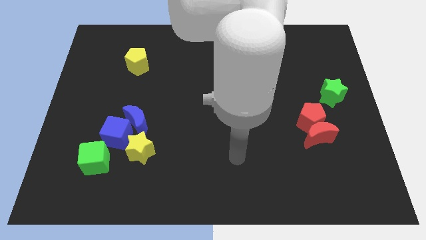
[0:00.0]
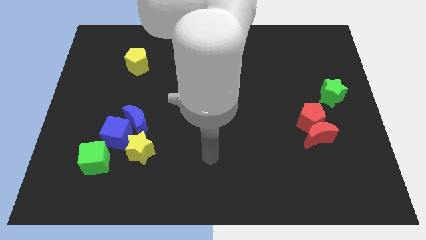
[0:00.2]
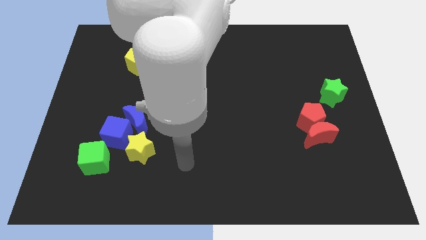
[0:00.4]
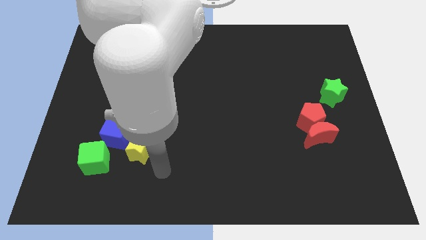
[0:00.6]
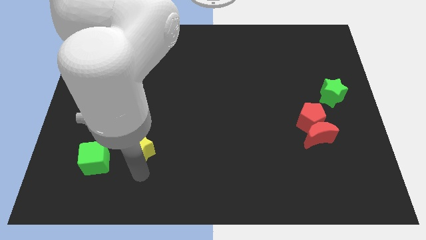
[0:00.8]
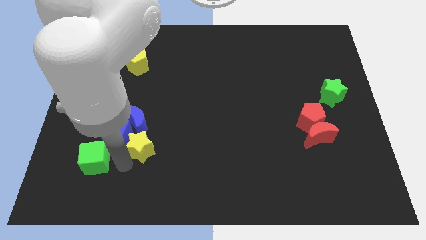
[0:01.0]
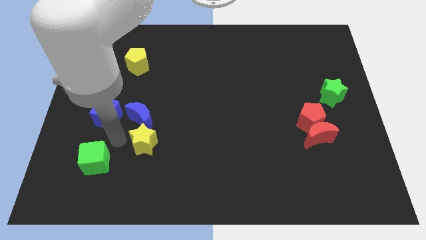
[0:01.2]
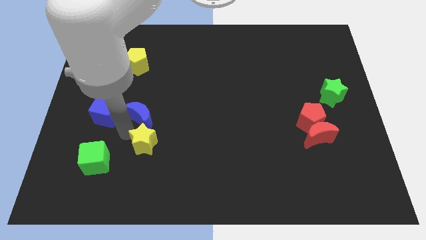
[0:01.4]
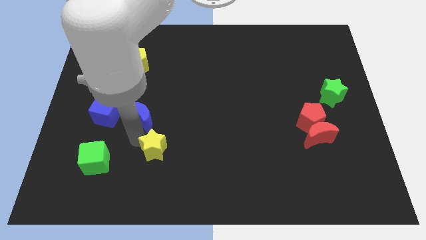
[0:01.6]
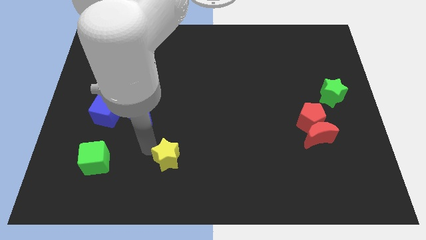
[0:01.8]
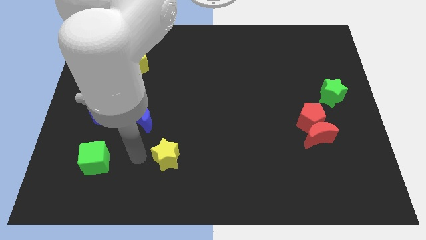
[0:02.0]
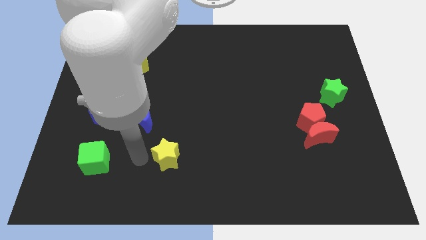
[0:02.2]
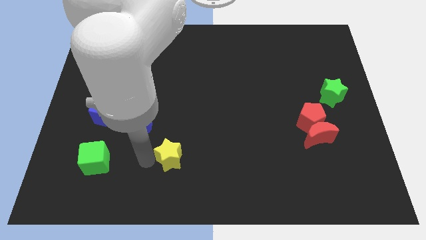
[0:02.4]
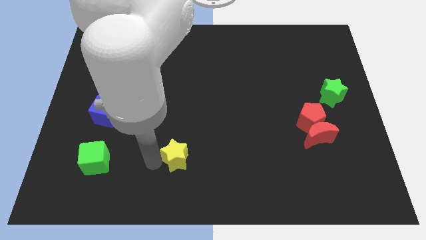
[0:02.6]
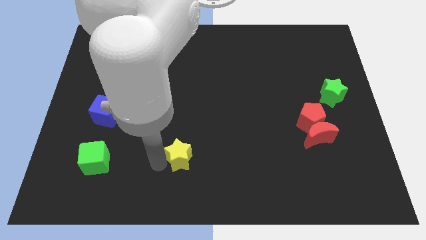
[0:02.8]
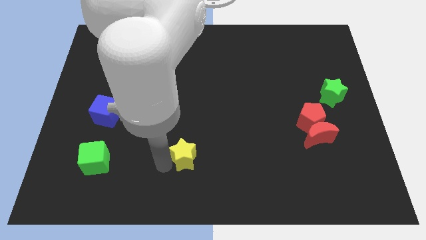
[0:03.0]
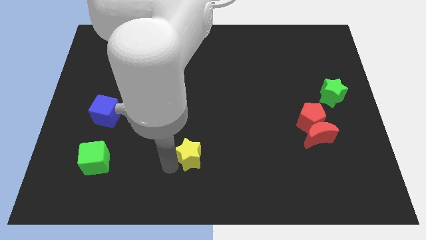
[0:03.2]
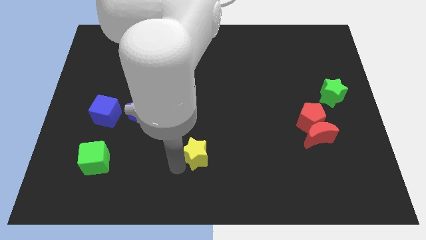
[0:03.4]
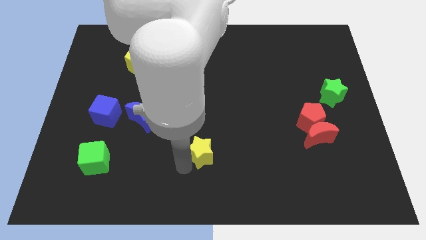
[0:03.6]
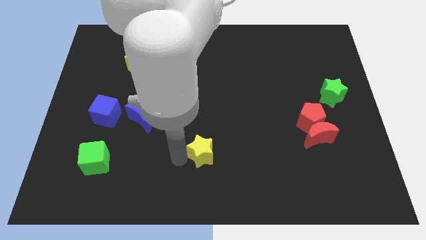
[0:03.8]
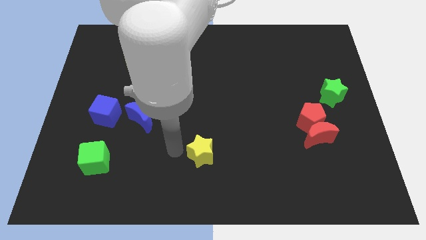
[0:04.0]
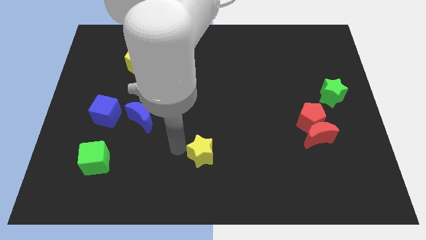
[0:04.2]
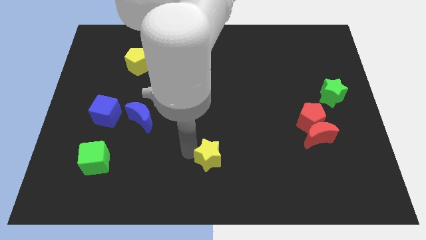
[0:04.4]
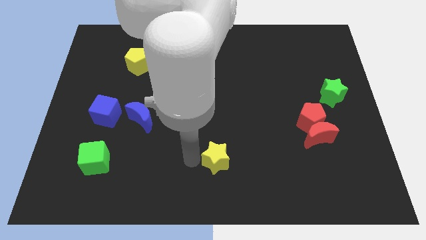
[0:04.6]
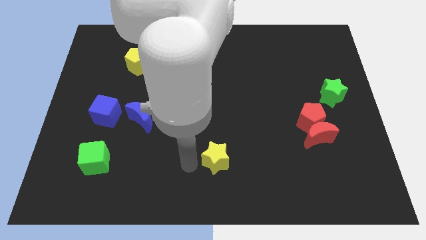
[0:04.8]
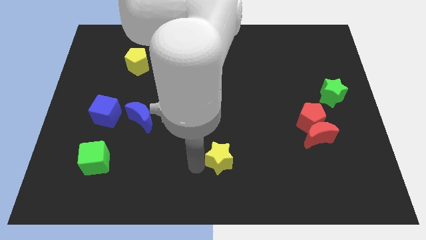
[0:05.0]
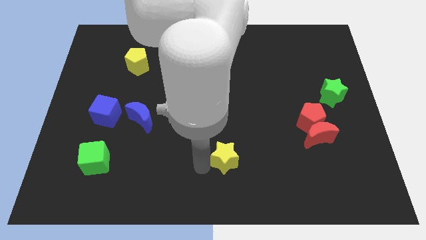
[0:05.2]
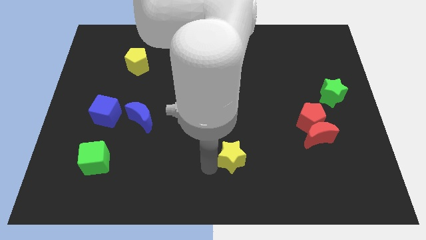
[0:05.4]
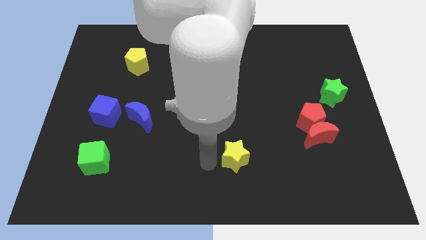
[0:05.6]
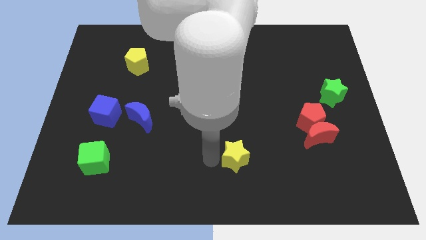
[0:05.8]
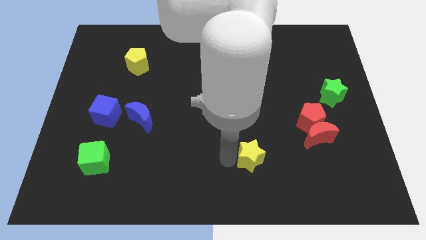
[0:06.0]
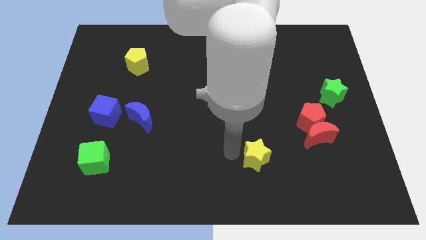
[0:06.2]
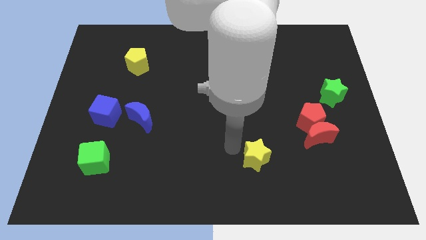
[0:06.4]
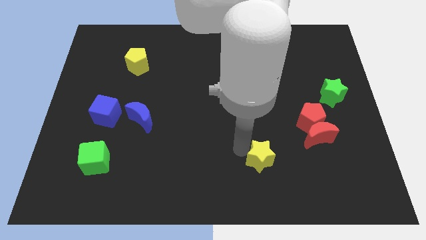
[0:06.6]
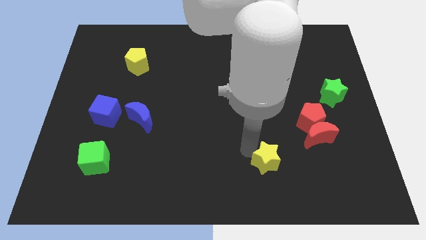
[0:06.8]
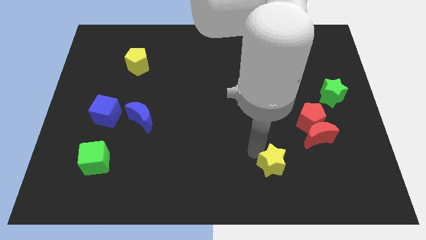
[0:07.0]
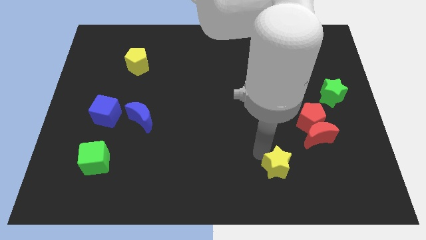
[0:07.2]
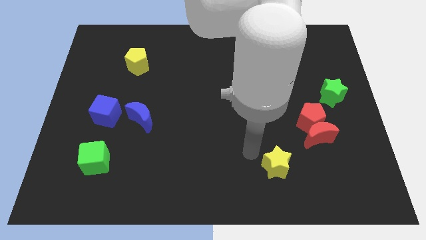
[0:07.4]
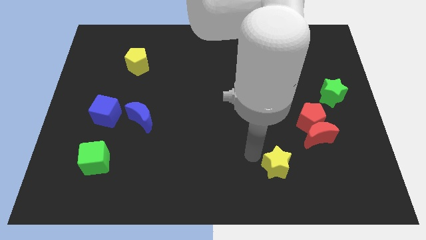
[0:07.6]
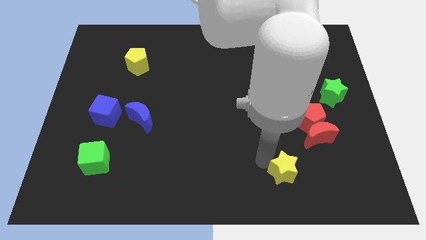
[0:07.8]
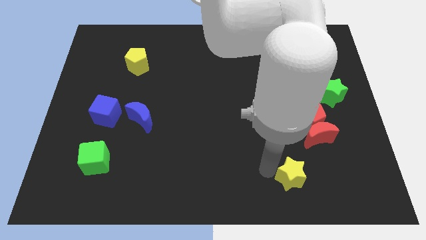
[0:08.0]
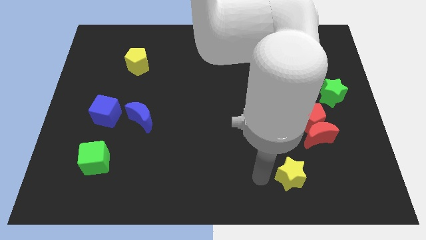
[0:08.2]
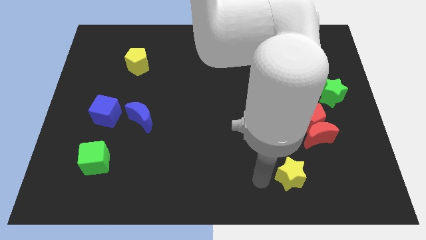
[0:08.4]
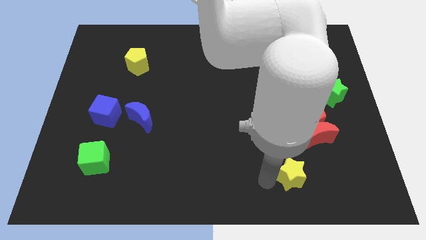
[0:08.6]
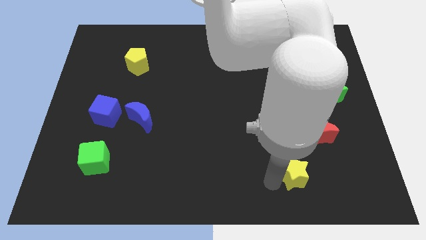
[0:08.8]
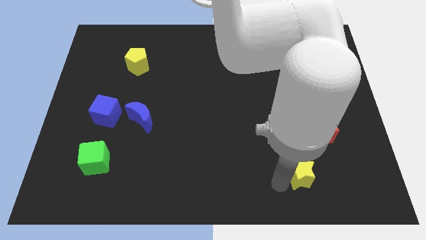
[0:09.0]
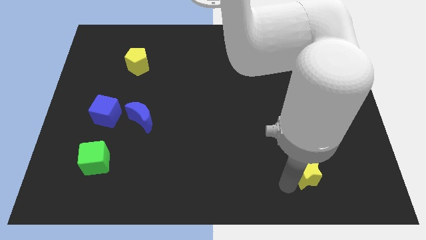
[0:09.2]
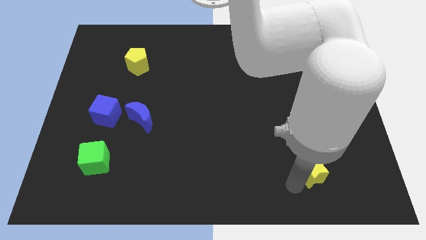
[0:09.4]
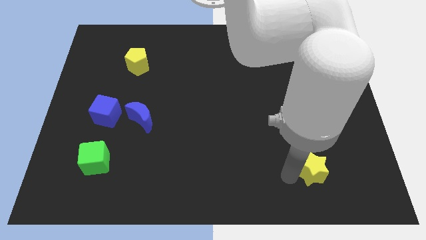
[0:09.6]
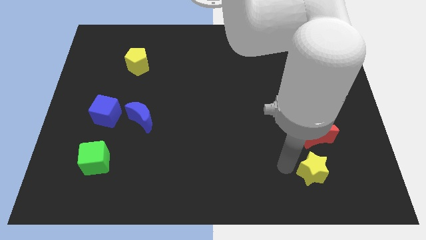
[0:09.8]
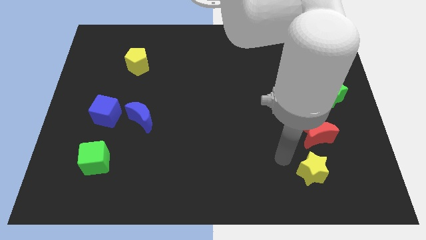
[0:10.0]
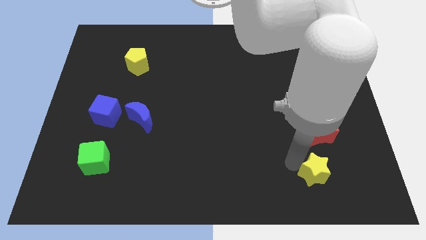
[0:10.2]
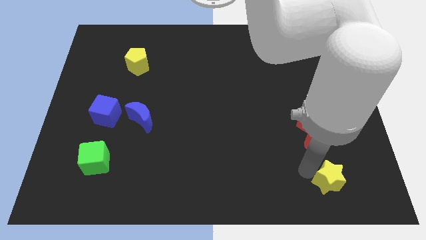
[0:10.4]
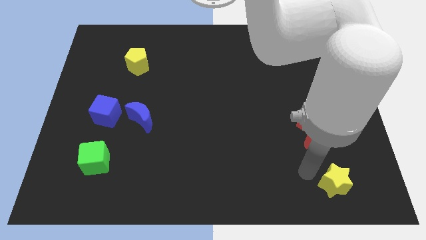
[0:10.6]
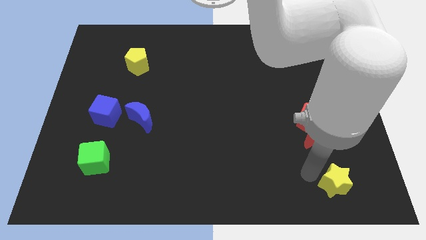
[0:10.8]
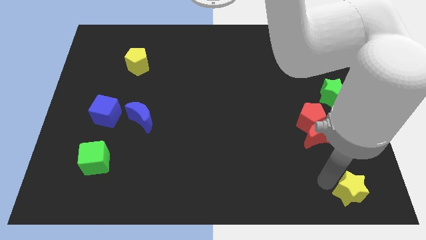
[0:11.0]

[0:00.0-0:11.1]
slide the yellow star to the lower right corner

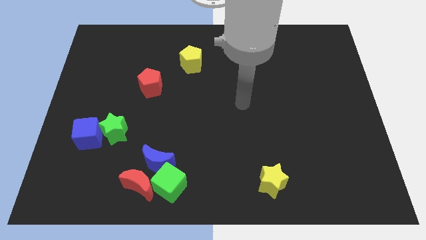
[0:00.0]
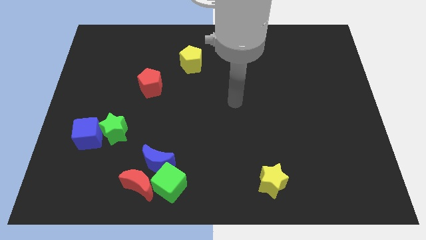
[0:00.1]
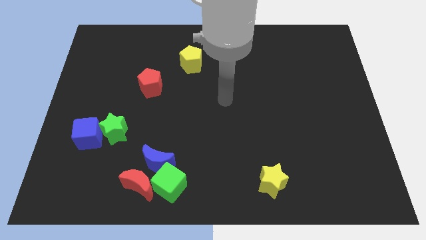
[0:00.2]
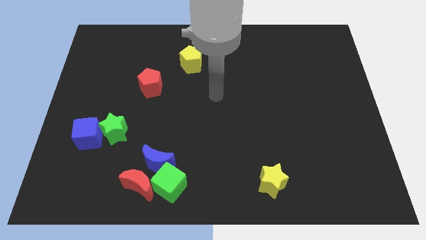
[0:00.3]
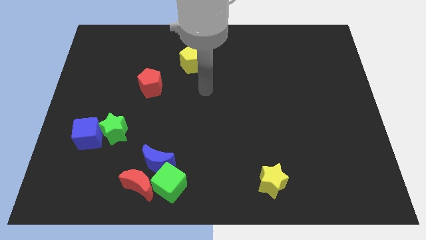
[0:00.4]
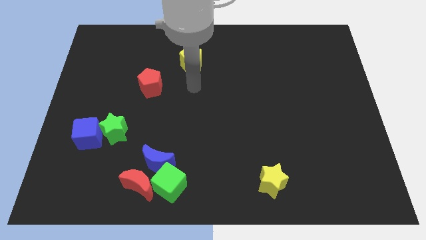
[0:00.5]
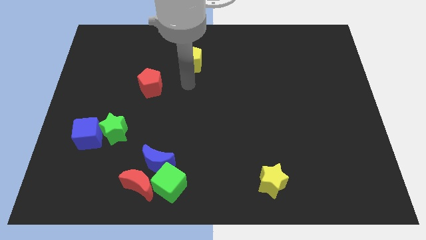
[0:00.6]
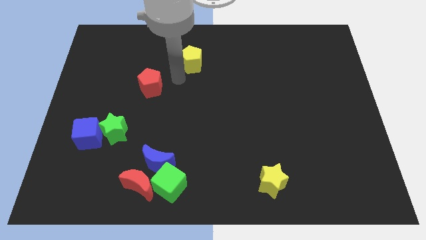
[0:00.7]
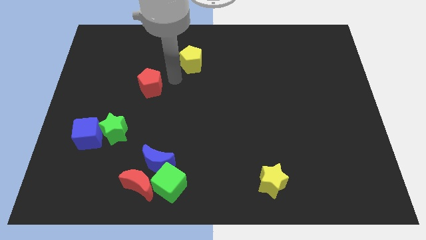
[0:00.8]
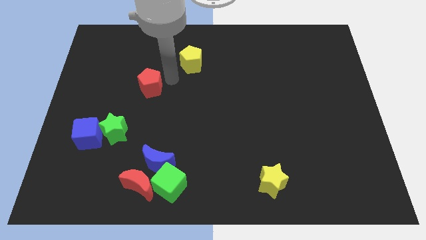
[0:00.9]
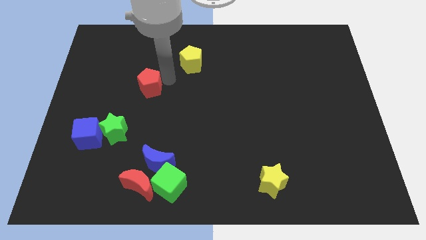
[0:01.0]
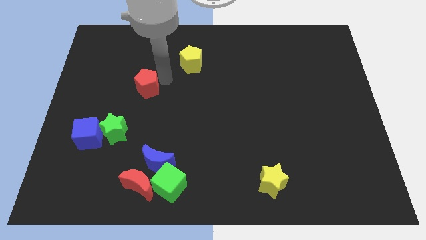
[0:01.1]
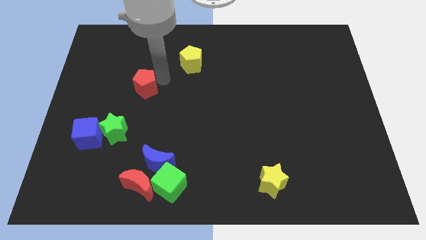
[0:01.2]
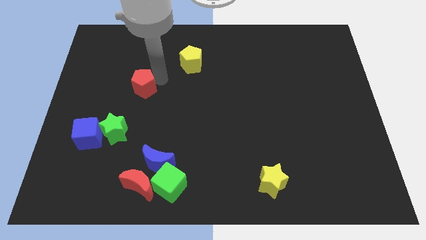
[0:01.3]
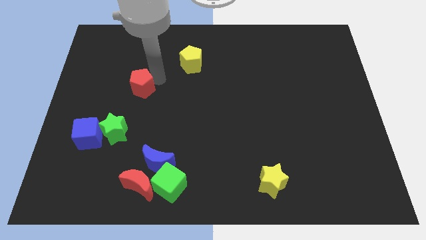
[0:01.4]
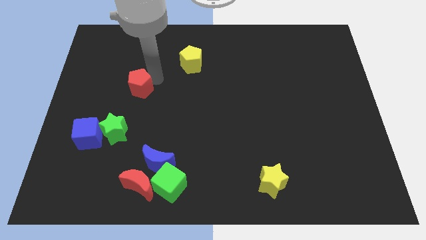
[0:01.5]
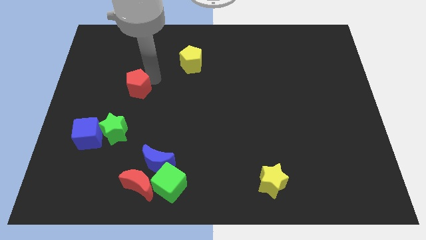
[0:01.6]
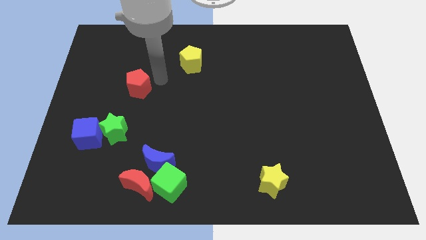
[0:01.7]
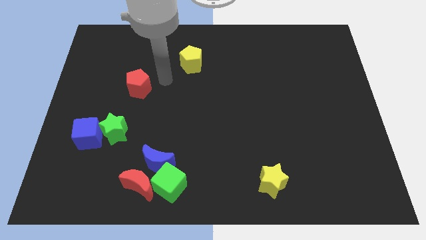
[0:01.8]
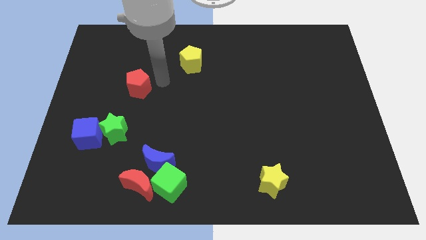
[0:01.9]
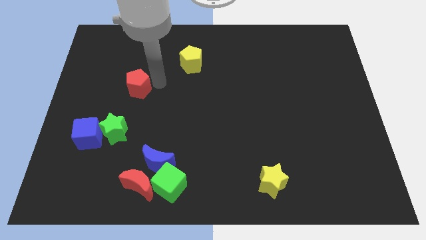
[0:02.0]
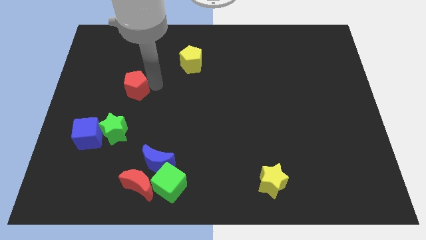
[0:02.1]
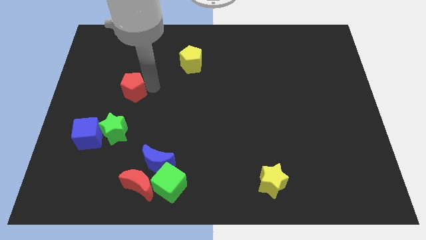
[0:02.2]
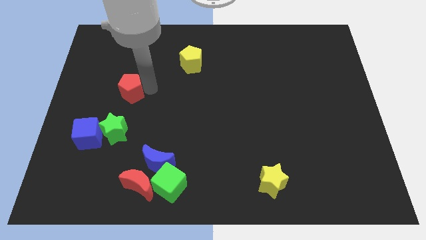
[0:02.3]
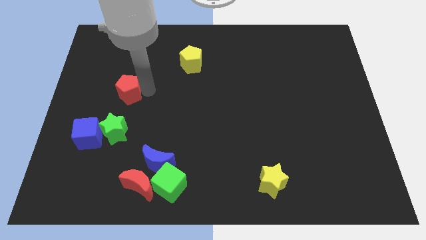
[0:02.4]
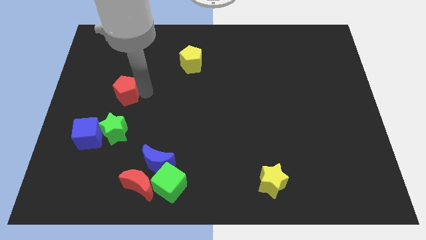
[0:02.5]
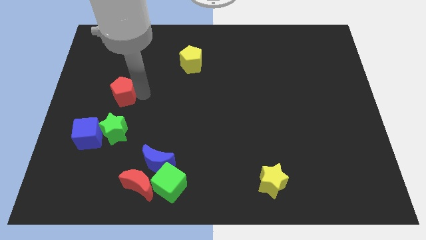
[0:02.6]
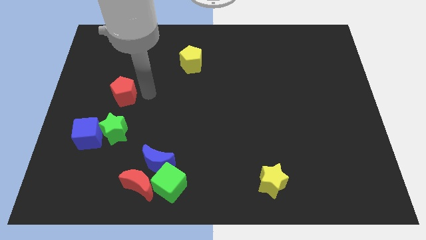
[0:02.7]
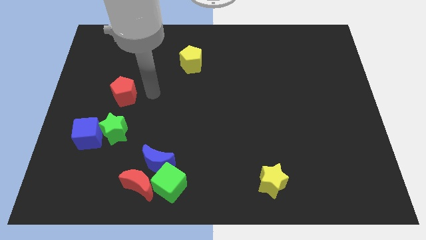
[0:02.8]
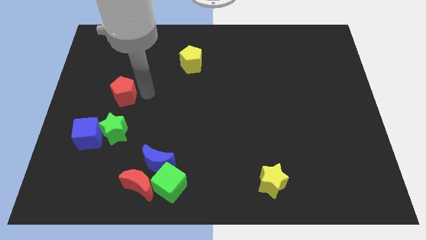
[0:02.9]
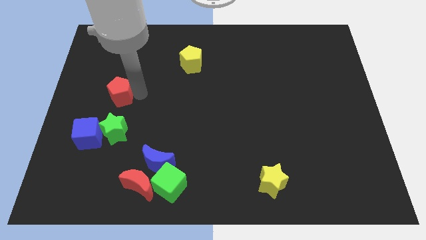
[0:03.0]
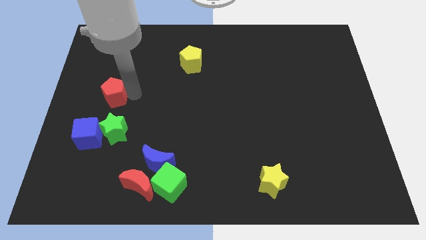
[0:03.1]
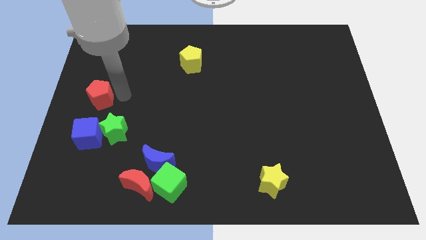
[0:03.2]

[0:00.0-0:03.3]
put the red pentagon to the center left
